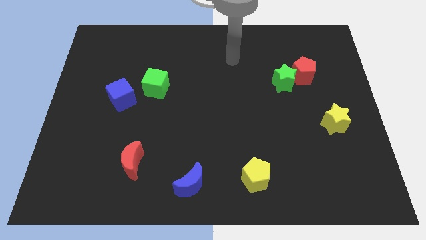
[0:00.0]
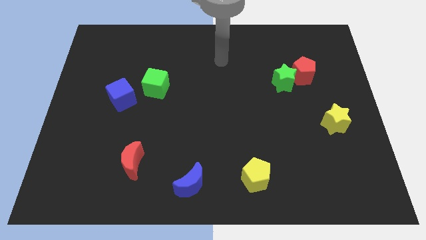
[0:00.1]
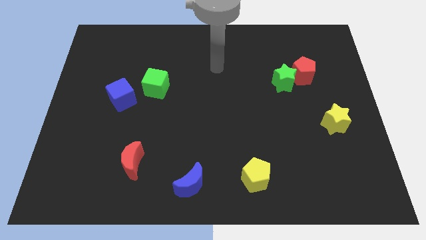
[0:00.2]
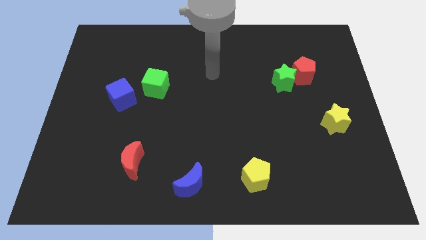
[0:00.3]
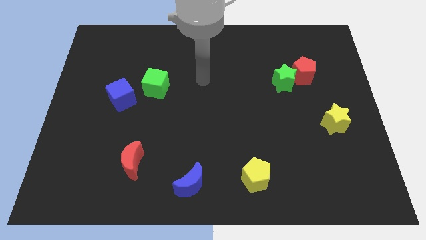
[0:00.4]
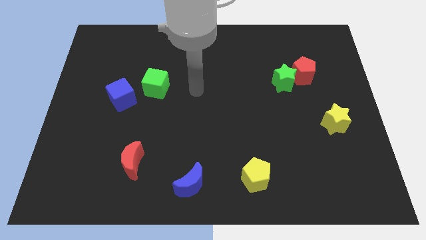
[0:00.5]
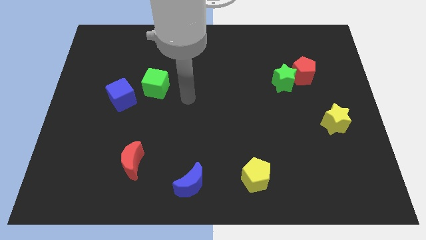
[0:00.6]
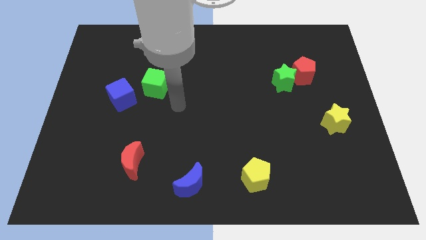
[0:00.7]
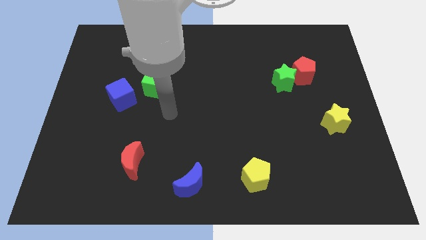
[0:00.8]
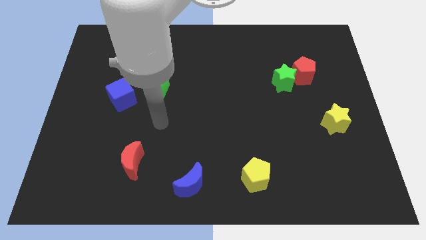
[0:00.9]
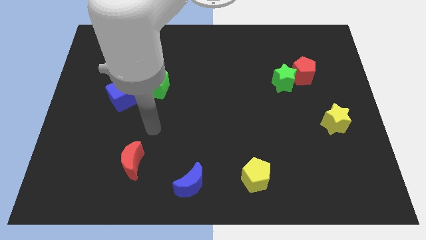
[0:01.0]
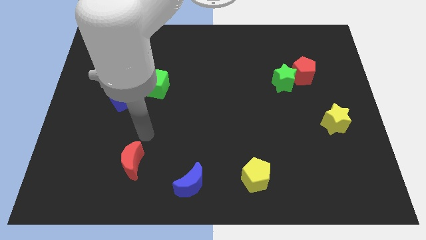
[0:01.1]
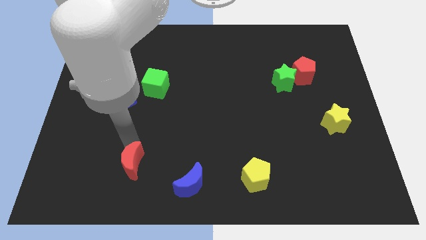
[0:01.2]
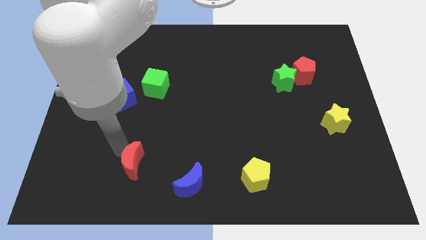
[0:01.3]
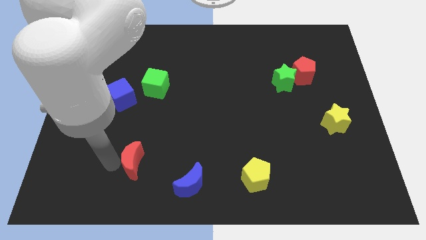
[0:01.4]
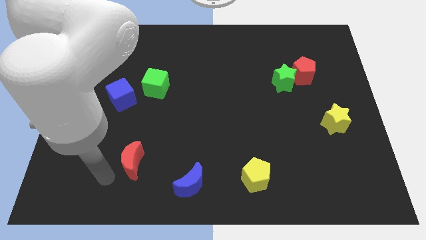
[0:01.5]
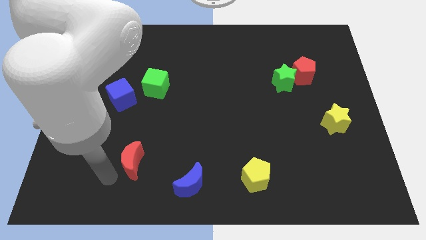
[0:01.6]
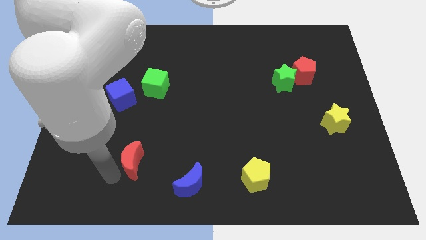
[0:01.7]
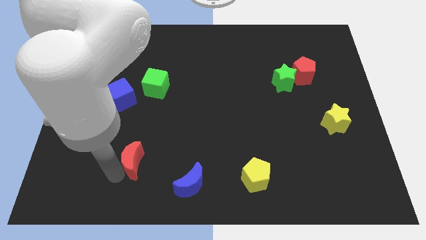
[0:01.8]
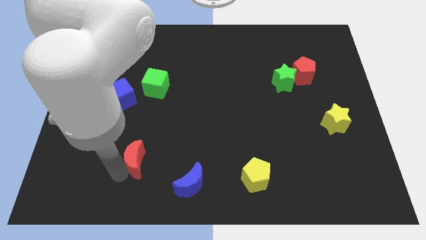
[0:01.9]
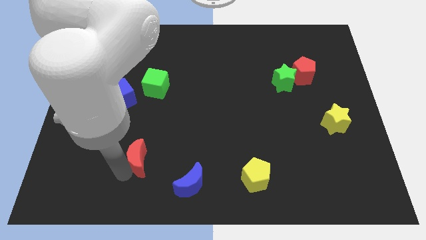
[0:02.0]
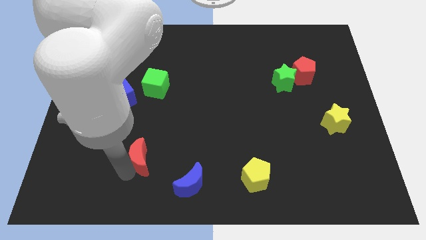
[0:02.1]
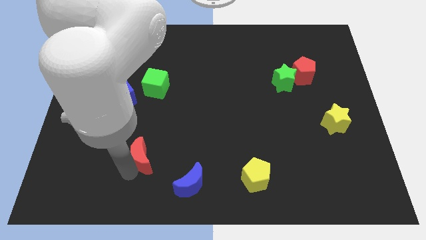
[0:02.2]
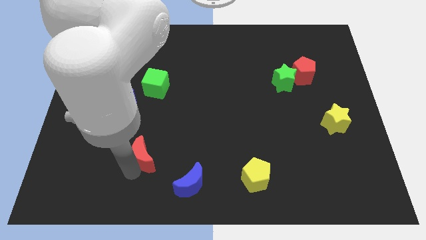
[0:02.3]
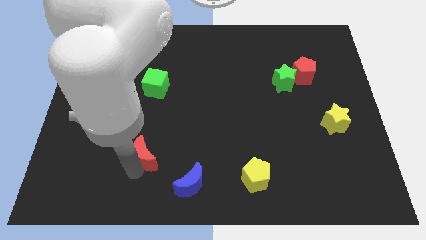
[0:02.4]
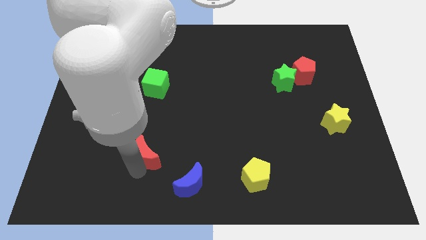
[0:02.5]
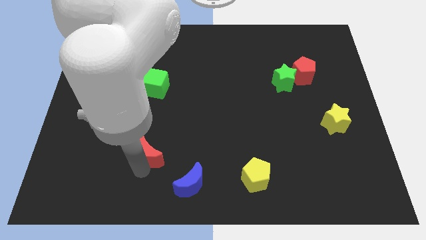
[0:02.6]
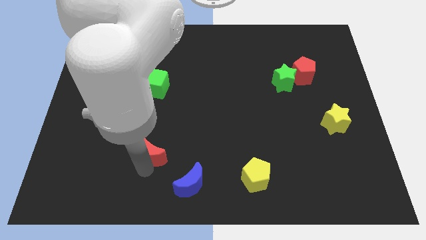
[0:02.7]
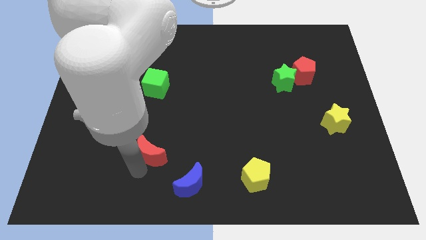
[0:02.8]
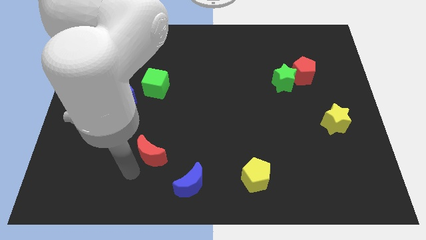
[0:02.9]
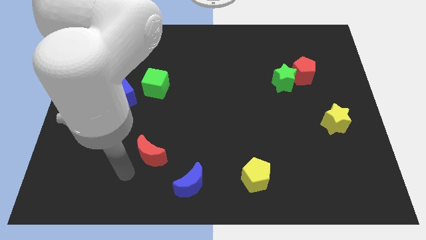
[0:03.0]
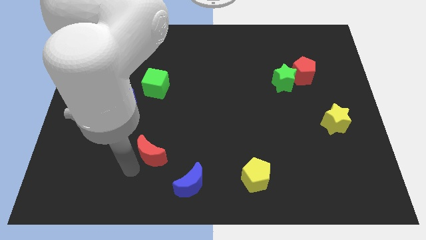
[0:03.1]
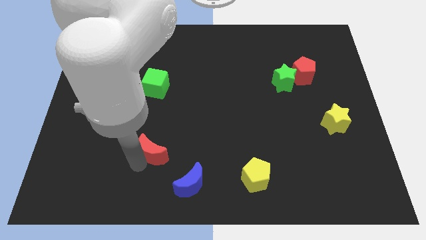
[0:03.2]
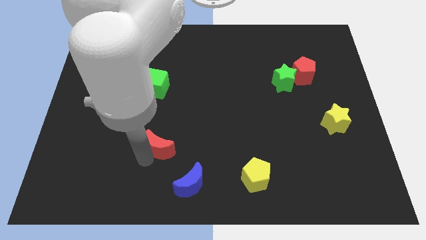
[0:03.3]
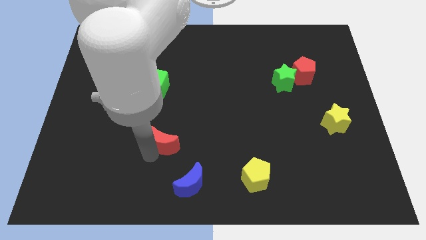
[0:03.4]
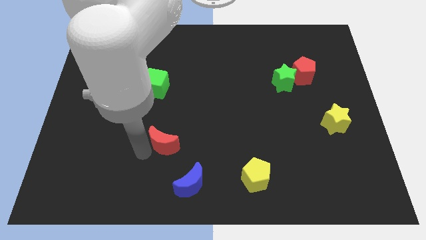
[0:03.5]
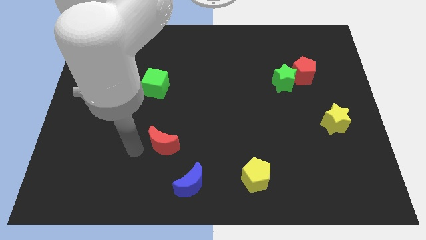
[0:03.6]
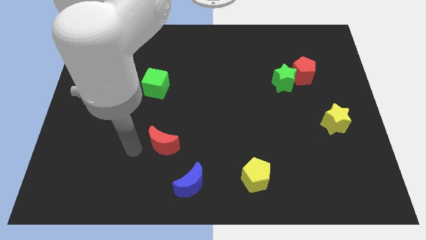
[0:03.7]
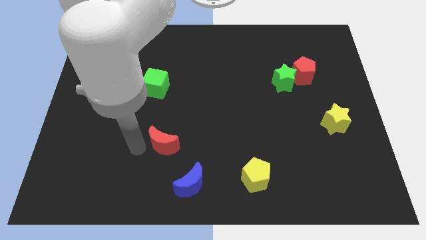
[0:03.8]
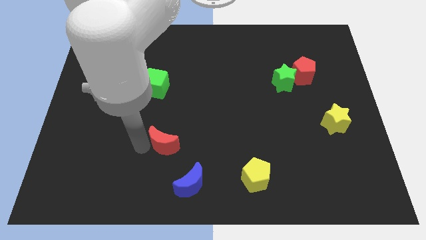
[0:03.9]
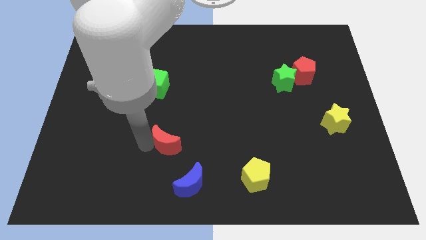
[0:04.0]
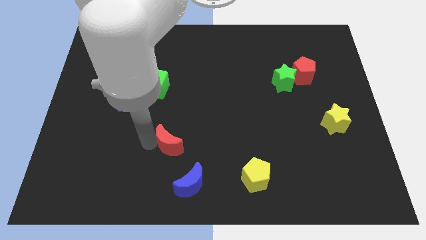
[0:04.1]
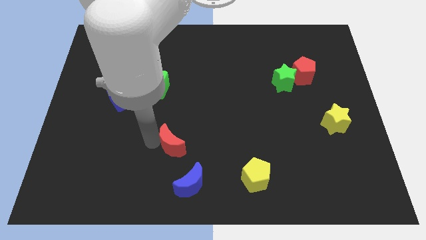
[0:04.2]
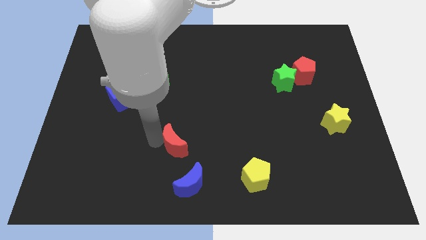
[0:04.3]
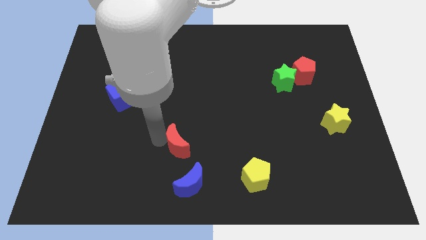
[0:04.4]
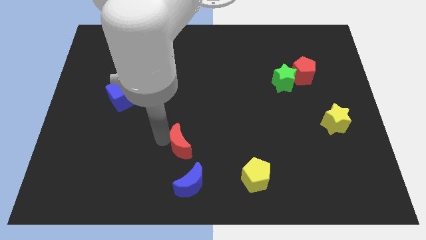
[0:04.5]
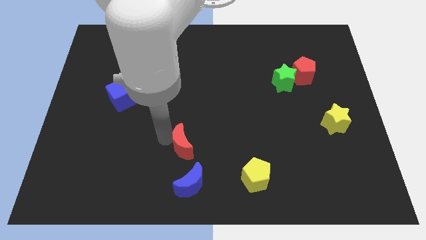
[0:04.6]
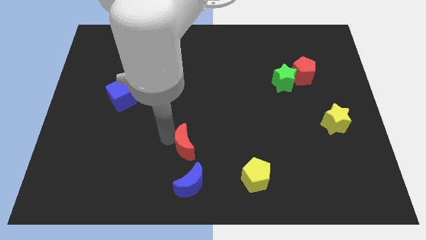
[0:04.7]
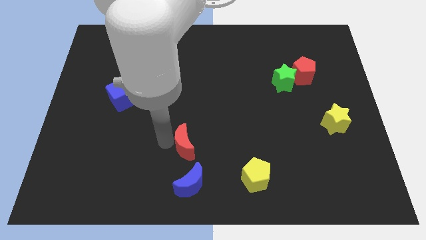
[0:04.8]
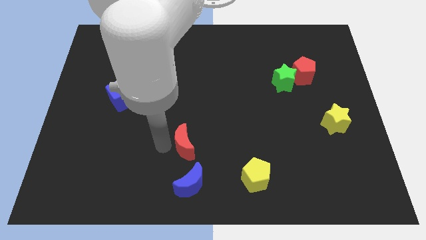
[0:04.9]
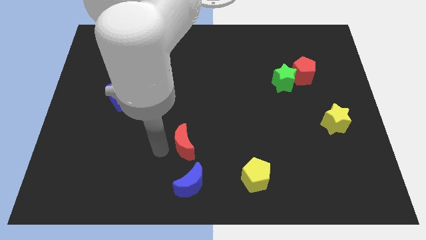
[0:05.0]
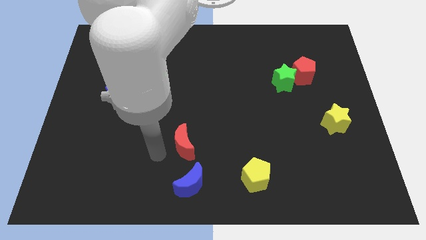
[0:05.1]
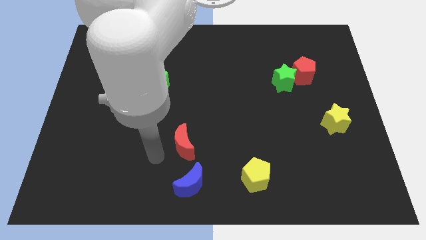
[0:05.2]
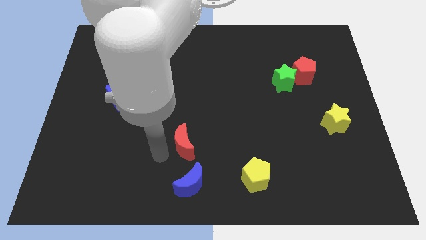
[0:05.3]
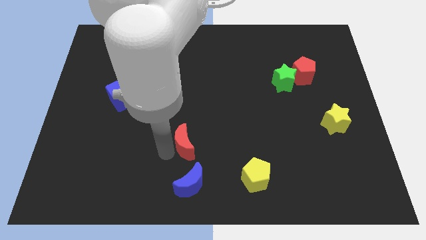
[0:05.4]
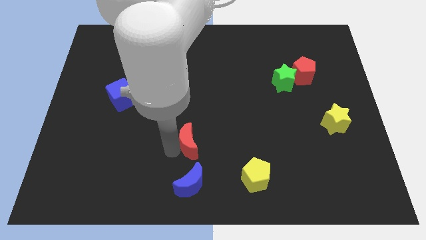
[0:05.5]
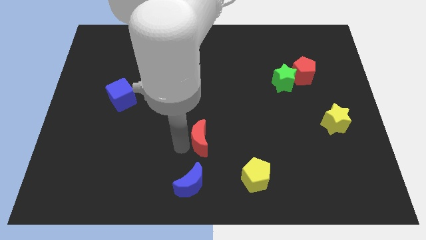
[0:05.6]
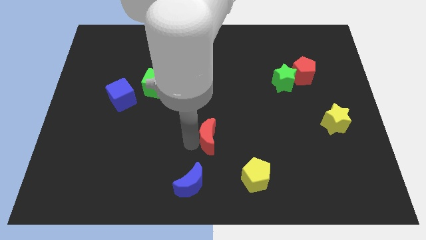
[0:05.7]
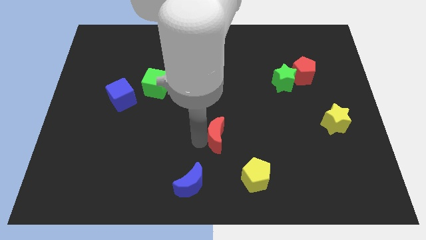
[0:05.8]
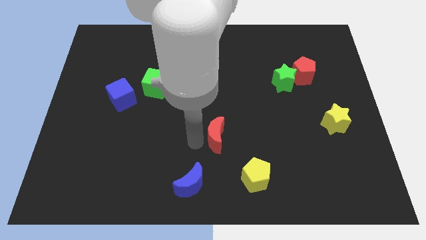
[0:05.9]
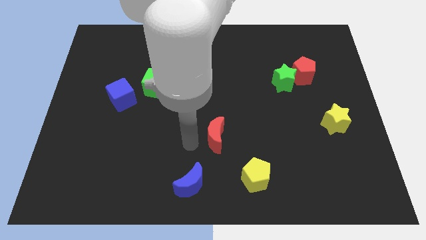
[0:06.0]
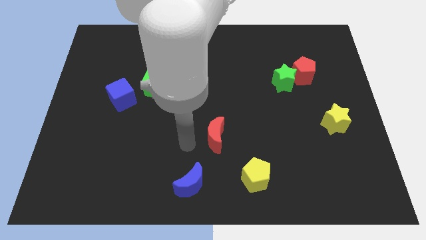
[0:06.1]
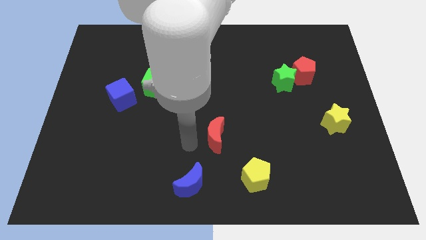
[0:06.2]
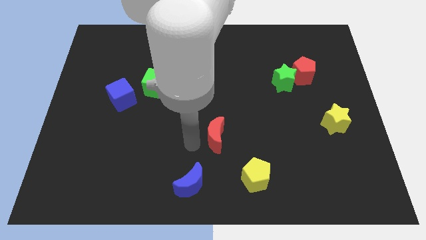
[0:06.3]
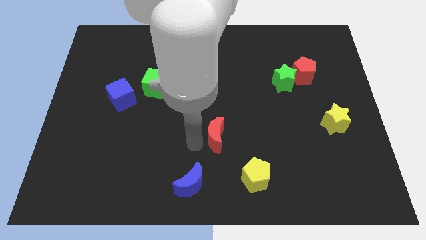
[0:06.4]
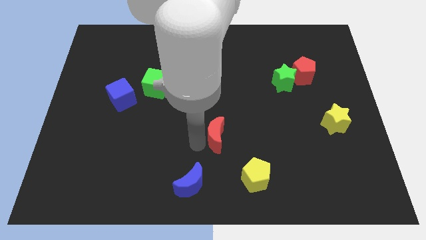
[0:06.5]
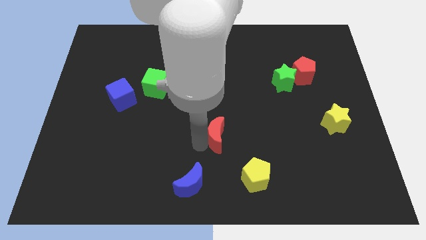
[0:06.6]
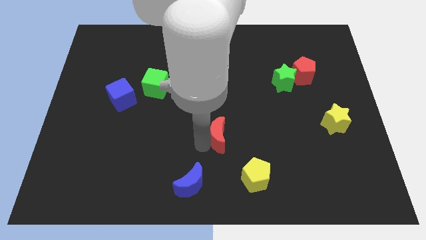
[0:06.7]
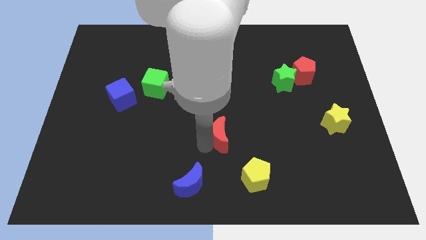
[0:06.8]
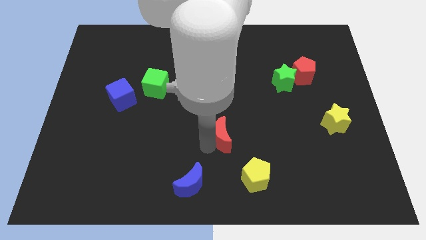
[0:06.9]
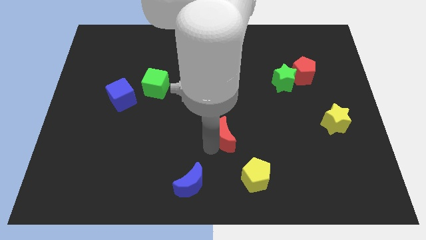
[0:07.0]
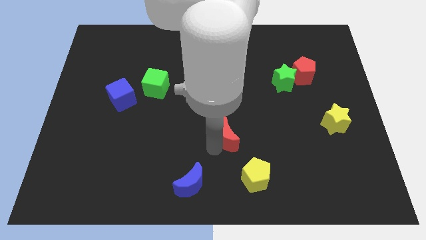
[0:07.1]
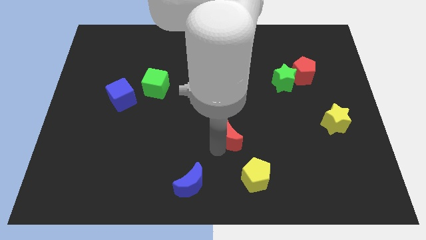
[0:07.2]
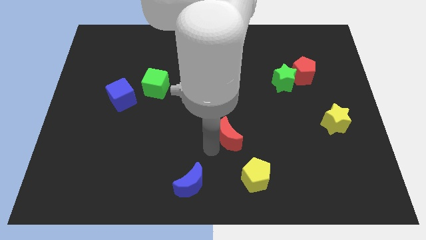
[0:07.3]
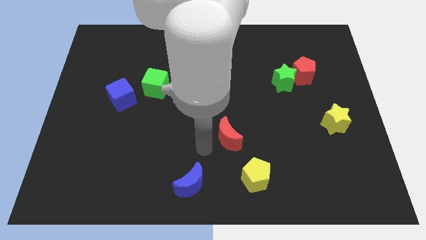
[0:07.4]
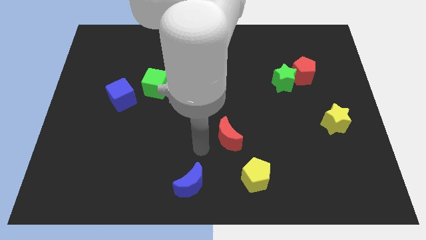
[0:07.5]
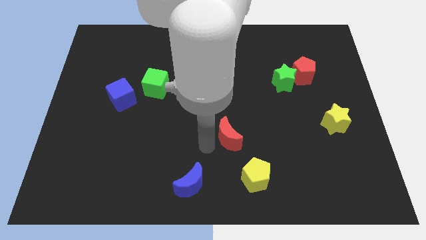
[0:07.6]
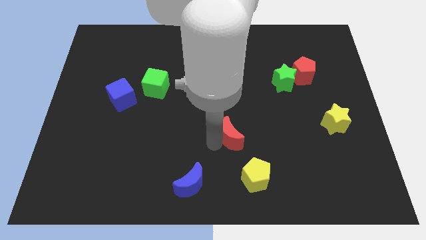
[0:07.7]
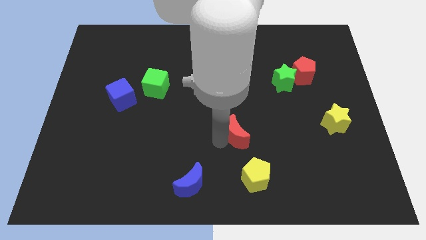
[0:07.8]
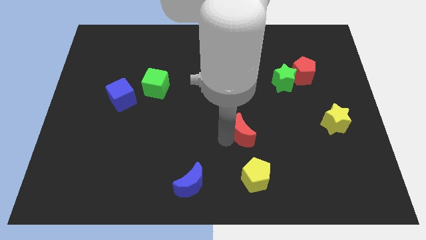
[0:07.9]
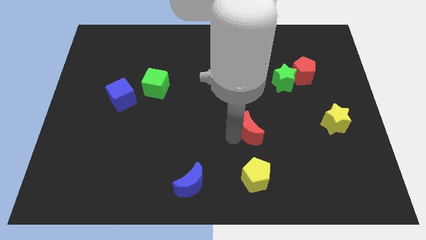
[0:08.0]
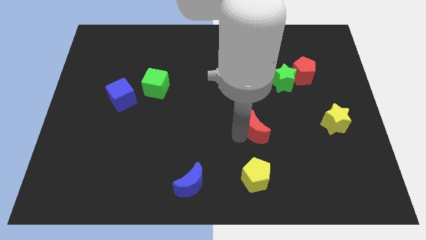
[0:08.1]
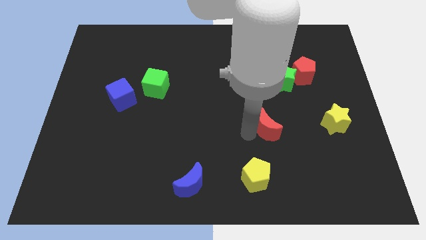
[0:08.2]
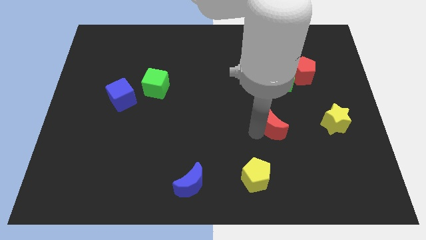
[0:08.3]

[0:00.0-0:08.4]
put the red moon to the bottom side of the green star
